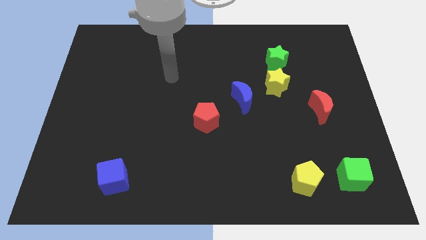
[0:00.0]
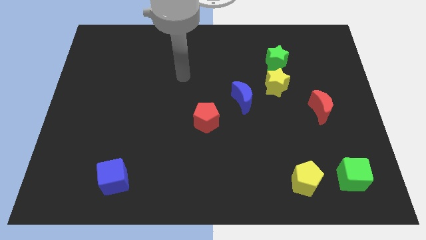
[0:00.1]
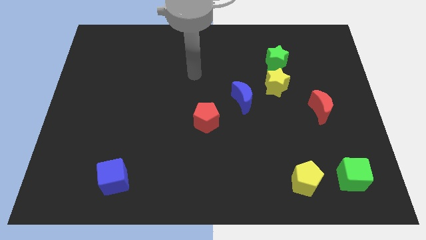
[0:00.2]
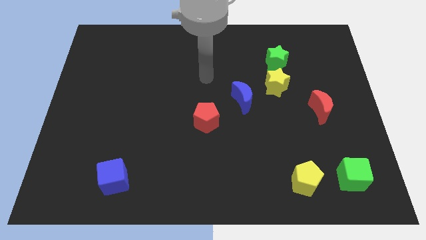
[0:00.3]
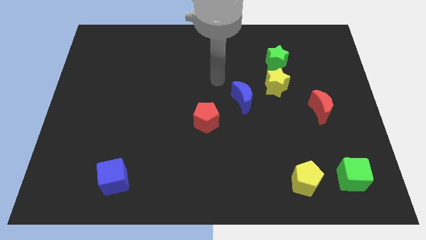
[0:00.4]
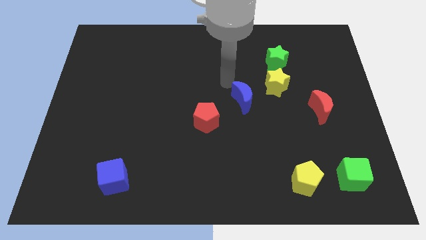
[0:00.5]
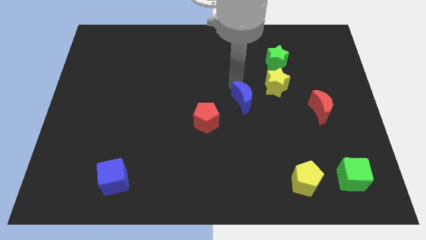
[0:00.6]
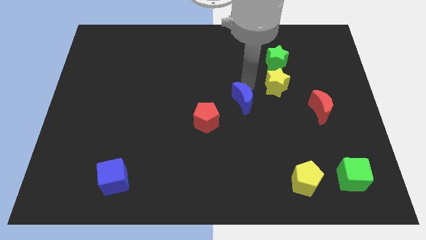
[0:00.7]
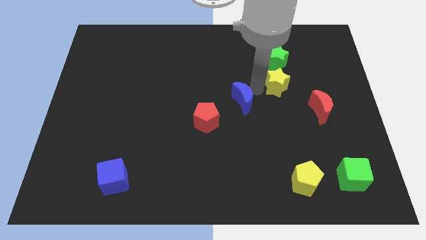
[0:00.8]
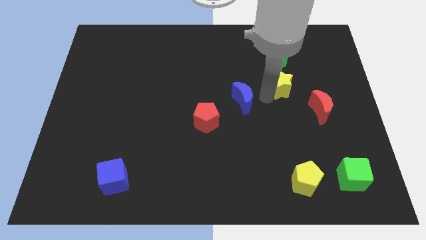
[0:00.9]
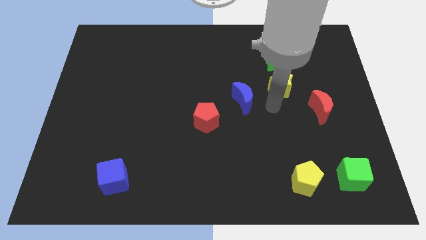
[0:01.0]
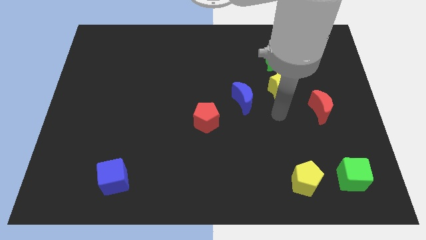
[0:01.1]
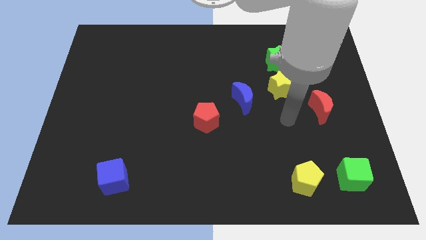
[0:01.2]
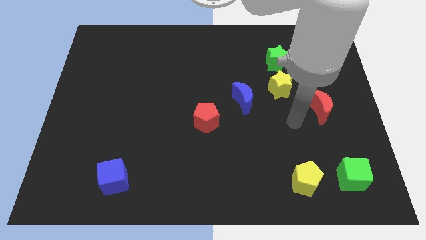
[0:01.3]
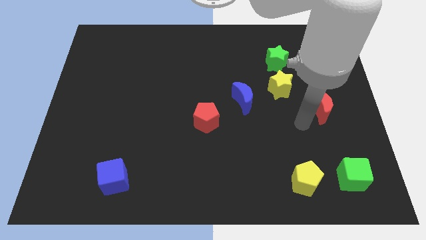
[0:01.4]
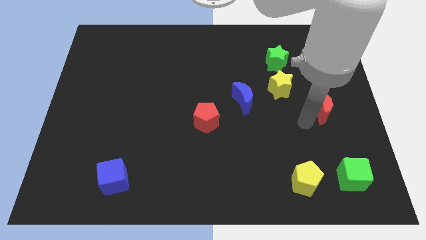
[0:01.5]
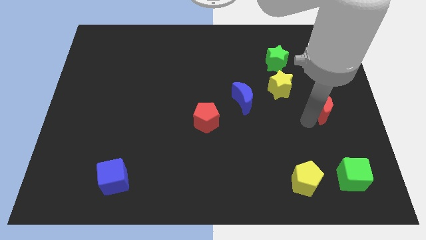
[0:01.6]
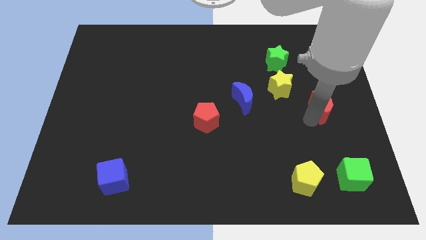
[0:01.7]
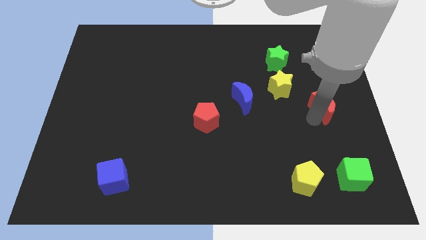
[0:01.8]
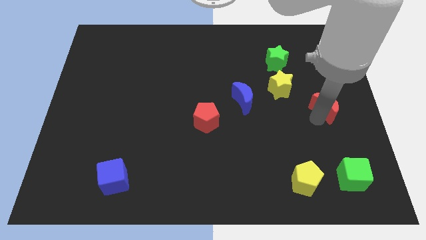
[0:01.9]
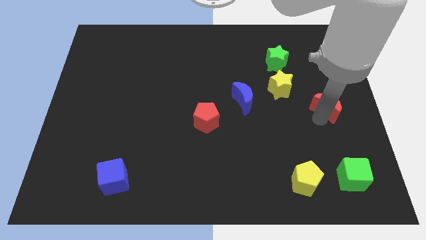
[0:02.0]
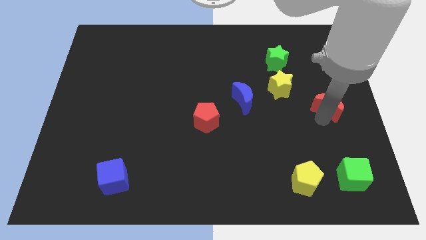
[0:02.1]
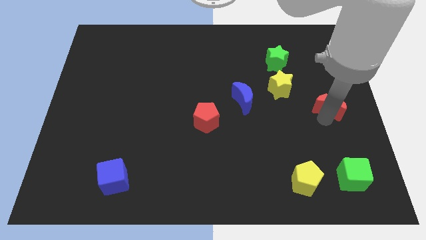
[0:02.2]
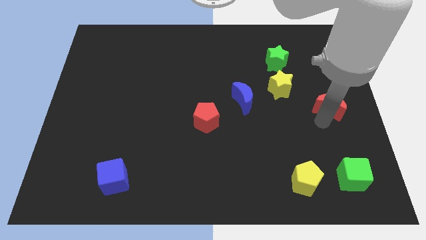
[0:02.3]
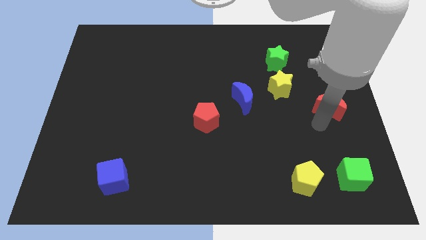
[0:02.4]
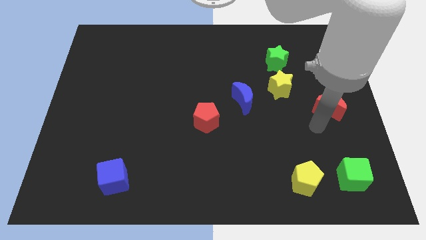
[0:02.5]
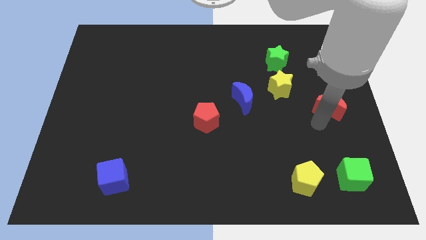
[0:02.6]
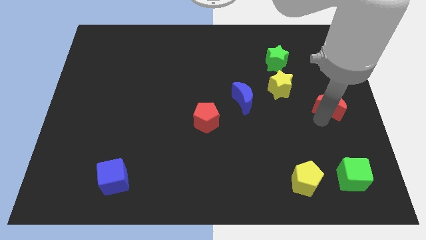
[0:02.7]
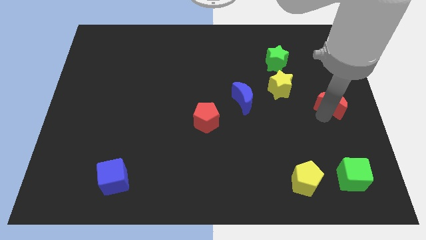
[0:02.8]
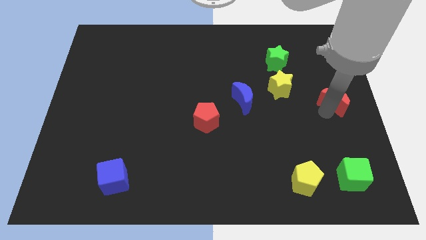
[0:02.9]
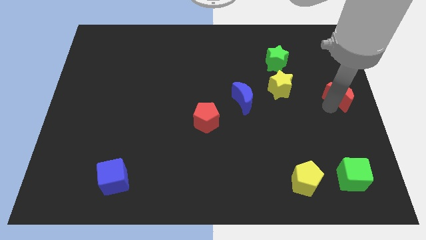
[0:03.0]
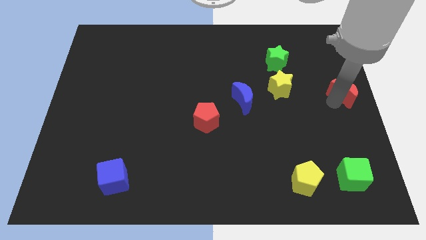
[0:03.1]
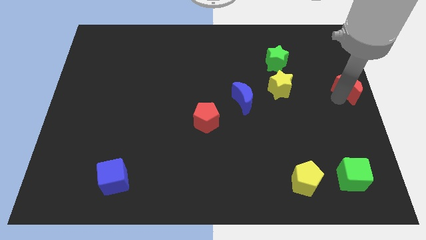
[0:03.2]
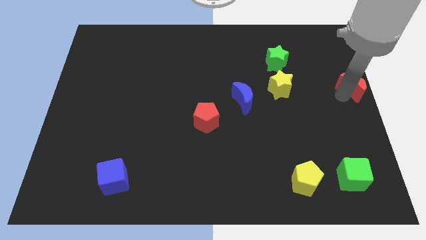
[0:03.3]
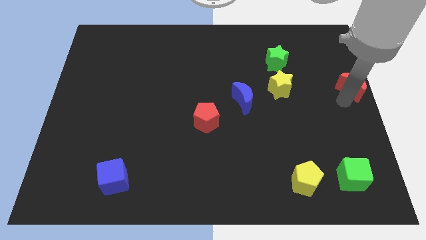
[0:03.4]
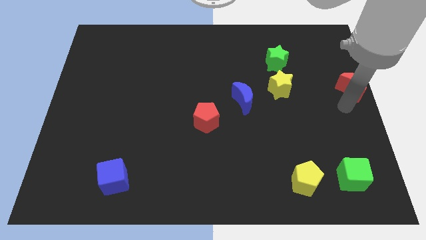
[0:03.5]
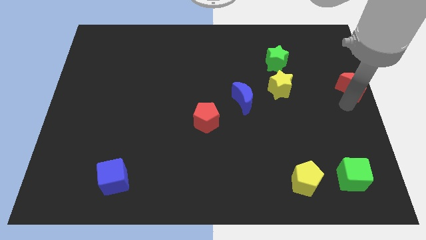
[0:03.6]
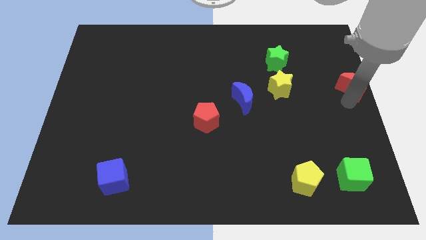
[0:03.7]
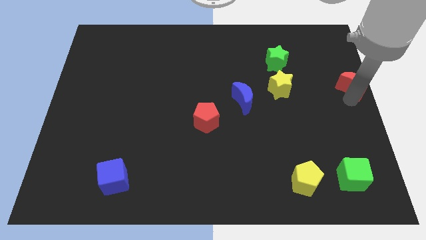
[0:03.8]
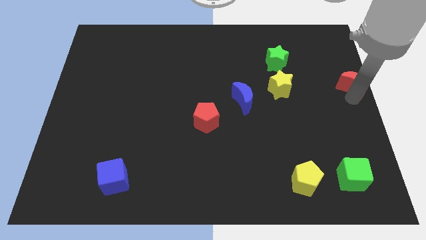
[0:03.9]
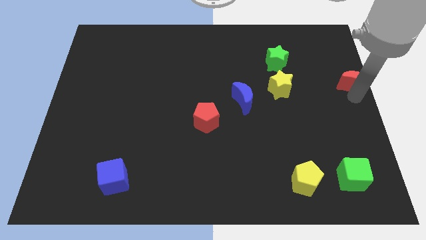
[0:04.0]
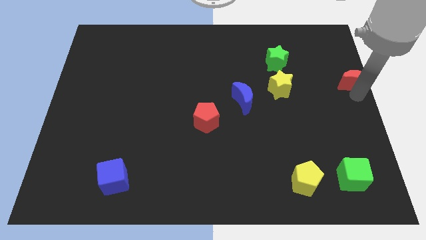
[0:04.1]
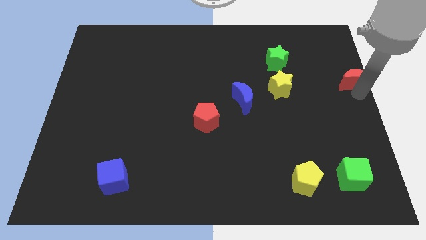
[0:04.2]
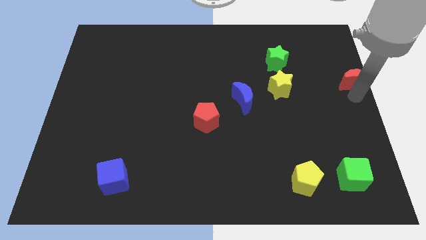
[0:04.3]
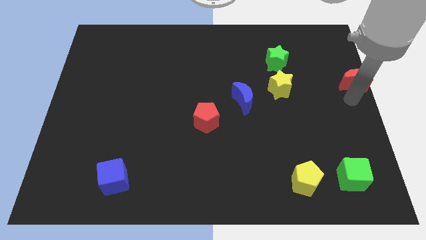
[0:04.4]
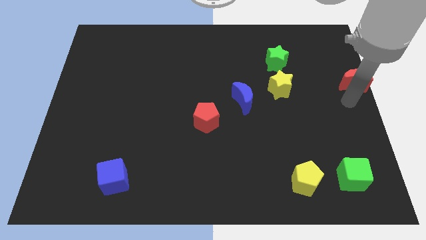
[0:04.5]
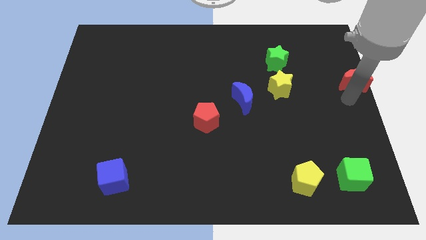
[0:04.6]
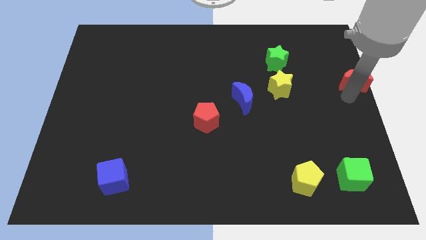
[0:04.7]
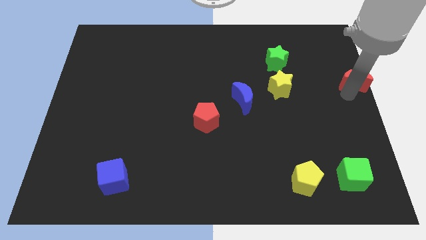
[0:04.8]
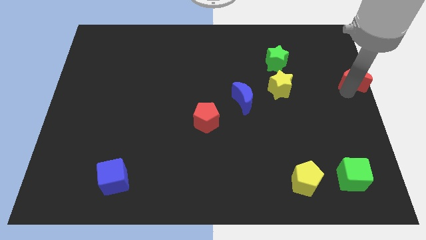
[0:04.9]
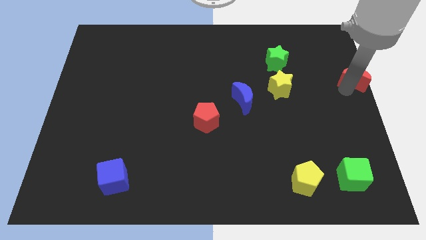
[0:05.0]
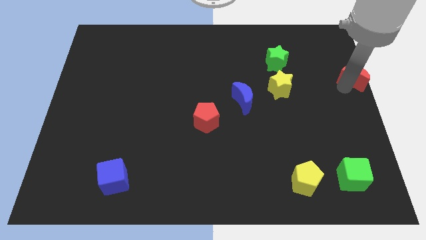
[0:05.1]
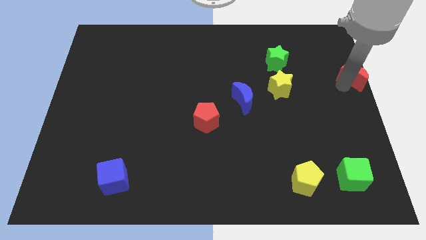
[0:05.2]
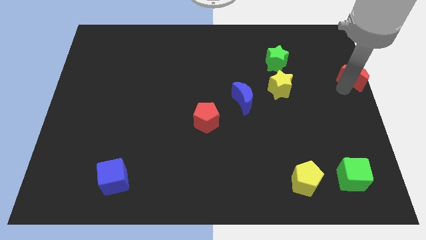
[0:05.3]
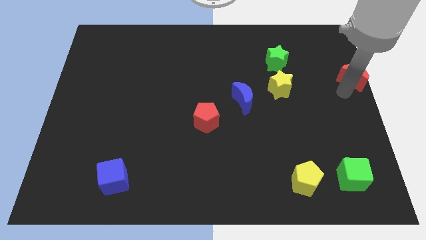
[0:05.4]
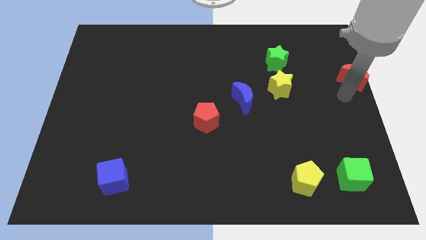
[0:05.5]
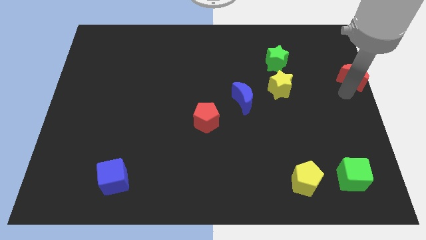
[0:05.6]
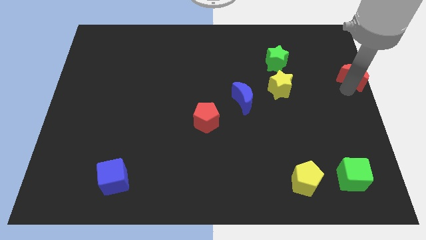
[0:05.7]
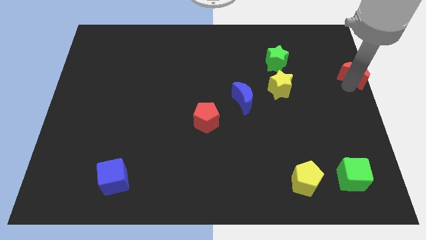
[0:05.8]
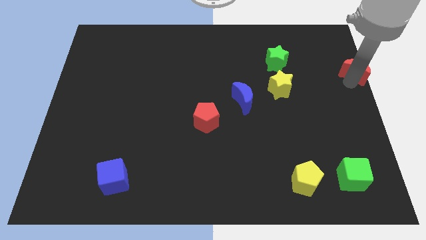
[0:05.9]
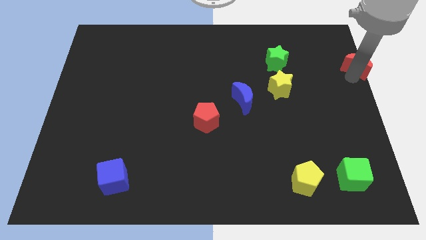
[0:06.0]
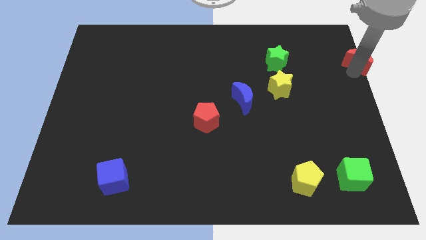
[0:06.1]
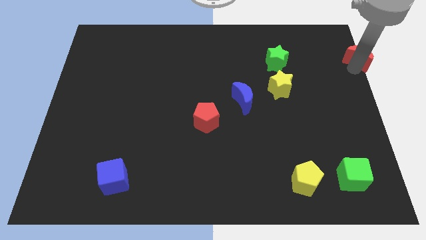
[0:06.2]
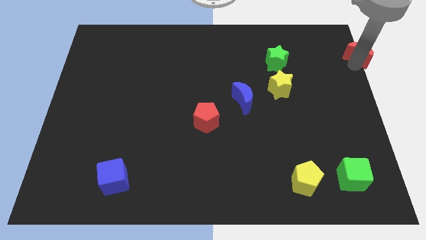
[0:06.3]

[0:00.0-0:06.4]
put the red moon to the upper right corner
